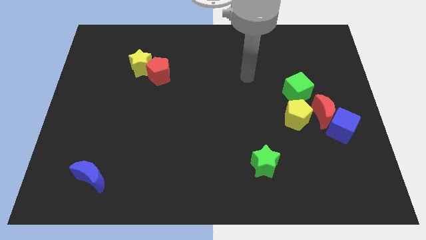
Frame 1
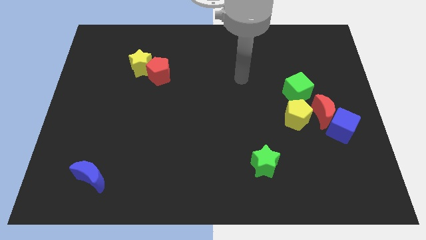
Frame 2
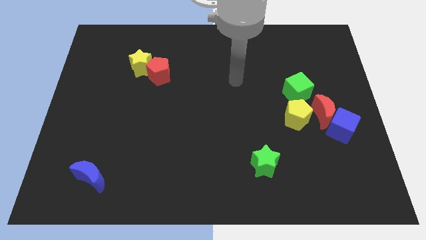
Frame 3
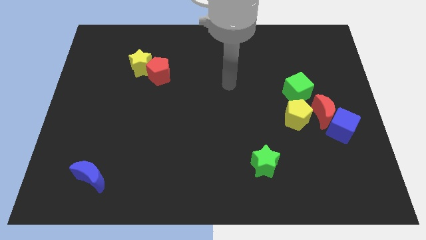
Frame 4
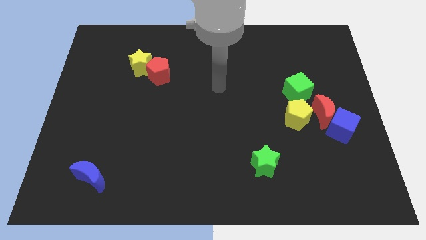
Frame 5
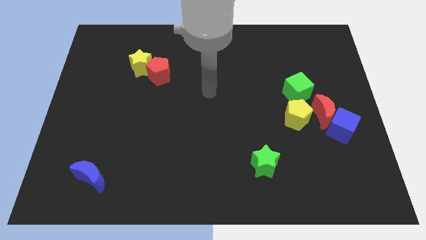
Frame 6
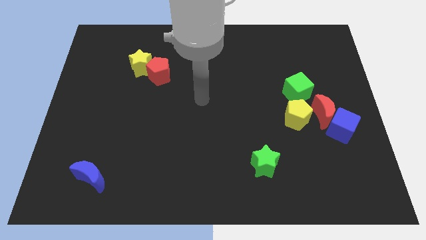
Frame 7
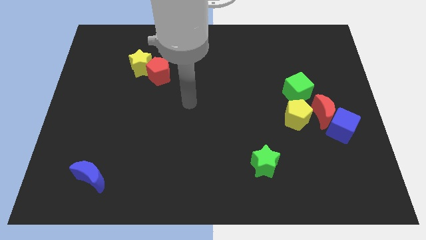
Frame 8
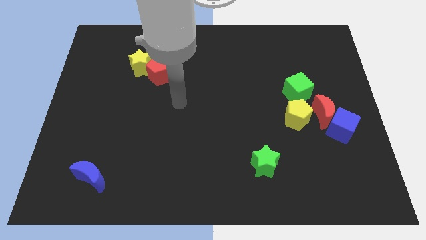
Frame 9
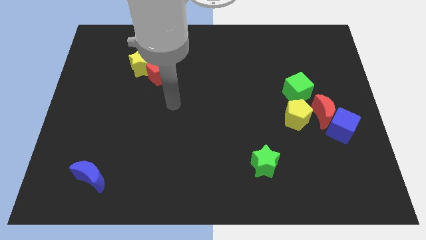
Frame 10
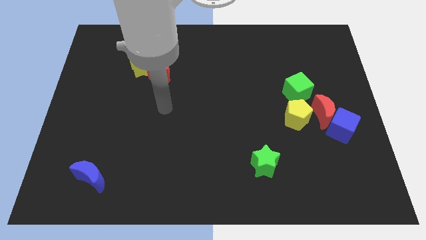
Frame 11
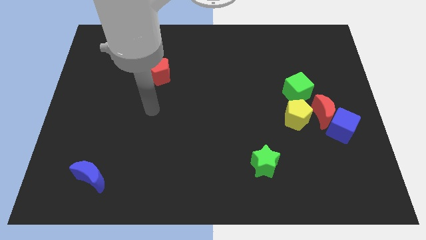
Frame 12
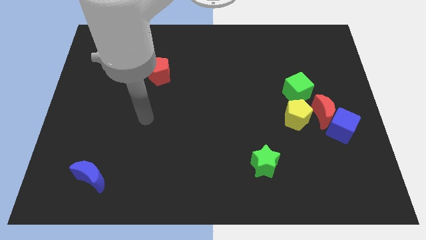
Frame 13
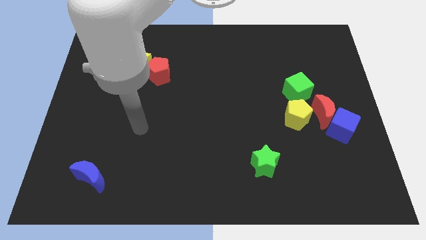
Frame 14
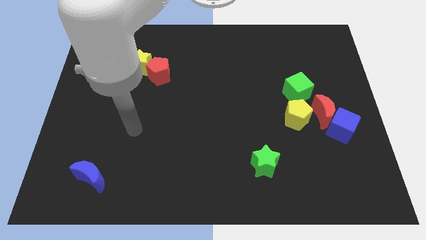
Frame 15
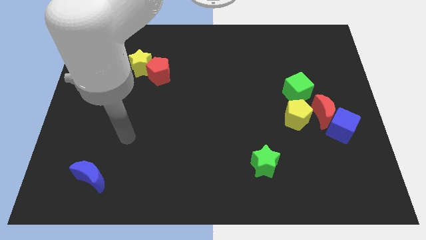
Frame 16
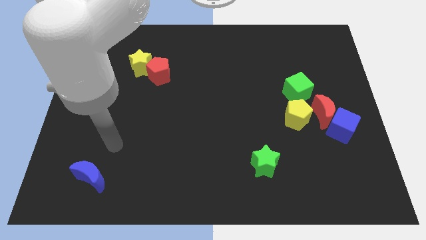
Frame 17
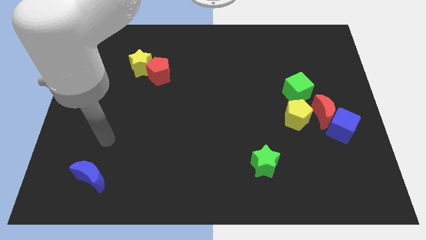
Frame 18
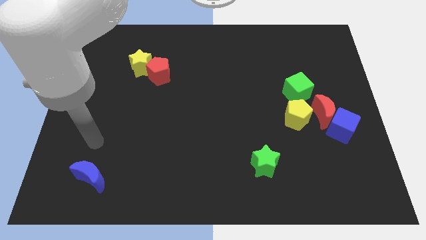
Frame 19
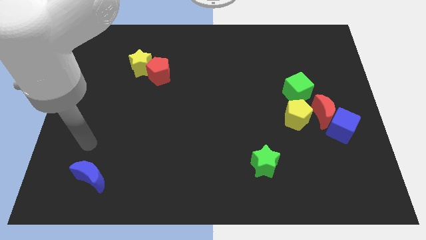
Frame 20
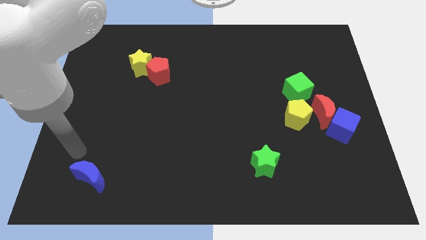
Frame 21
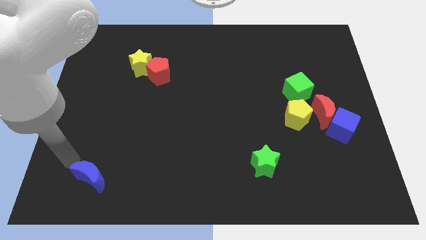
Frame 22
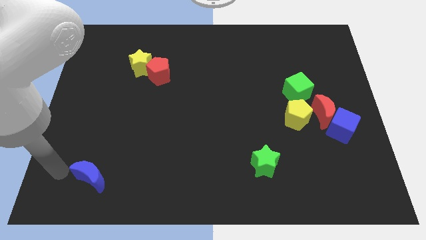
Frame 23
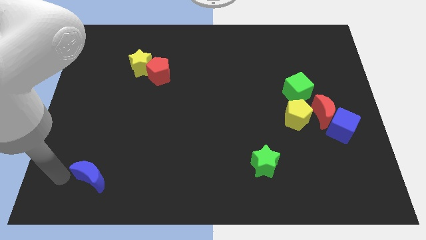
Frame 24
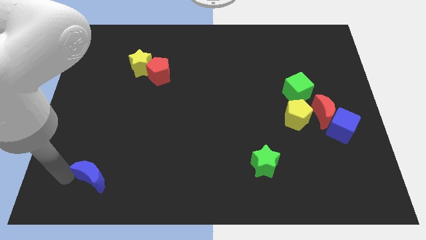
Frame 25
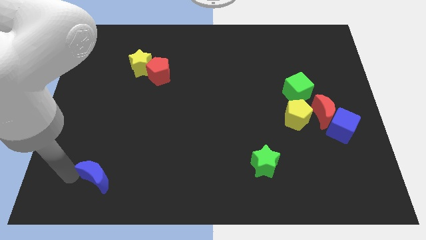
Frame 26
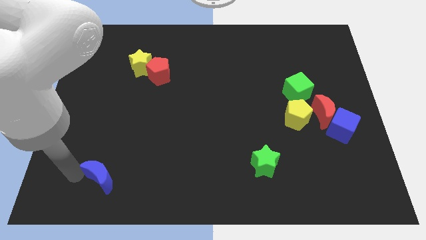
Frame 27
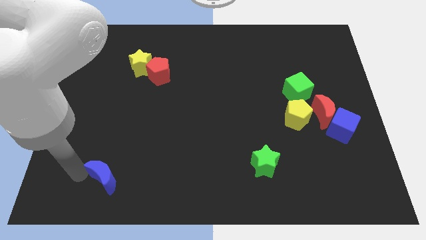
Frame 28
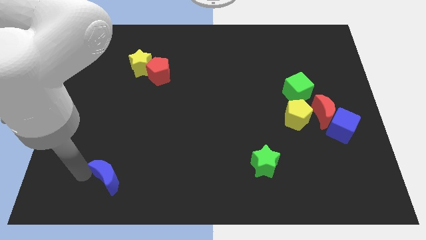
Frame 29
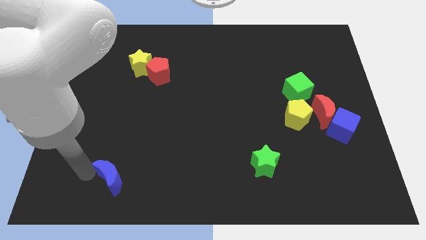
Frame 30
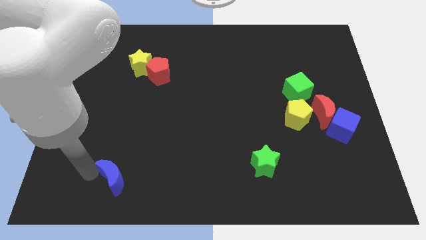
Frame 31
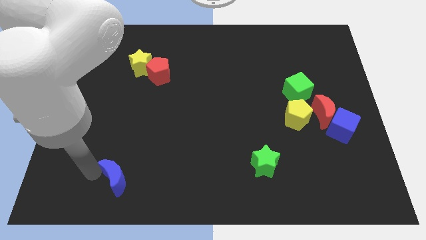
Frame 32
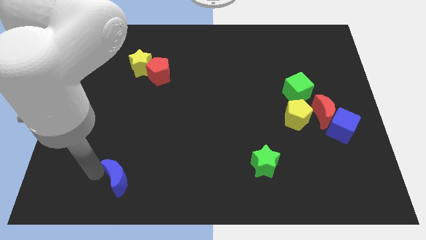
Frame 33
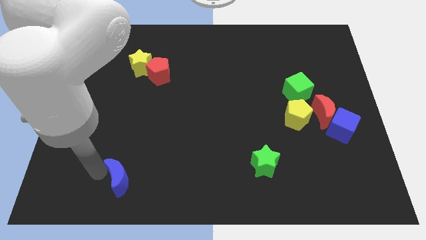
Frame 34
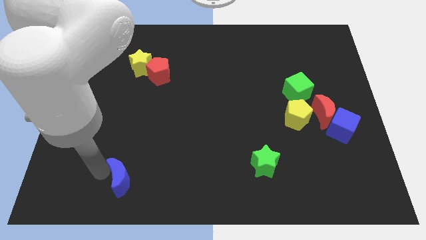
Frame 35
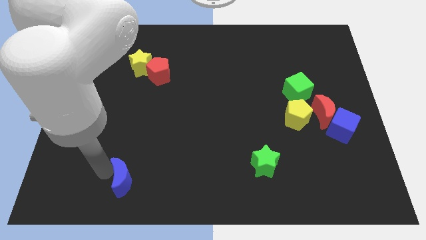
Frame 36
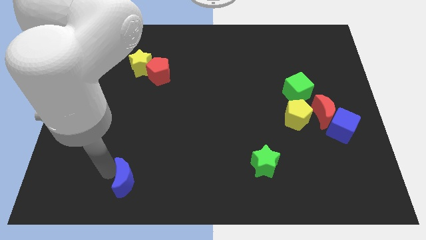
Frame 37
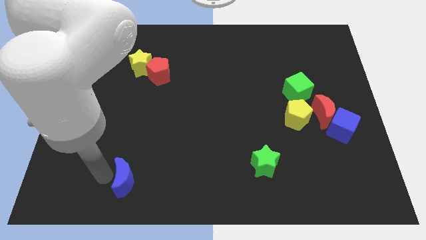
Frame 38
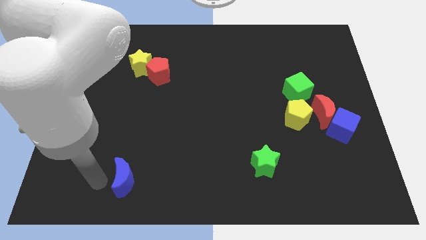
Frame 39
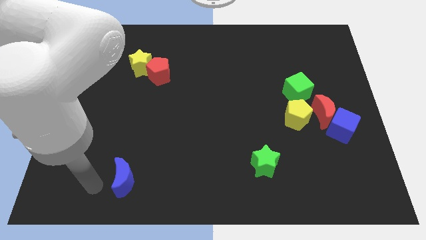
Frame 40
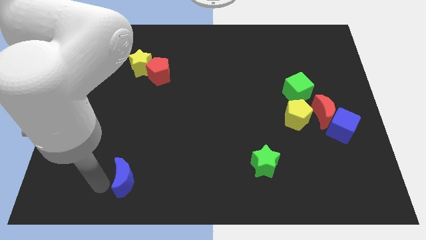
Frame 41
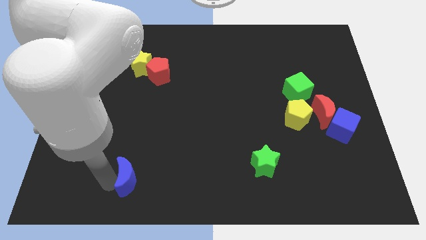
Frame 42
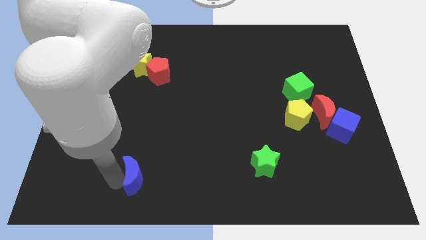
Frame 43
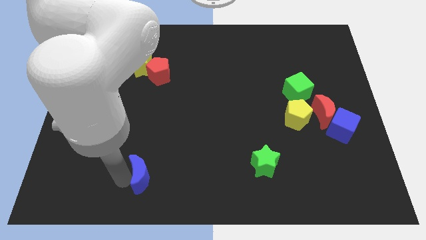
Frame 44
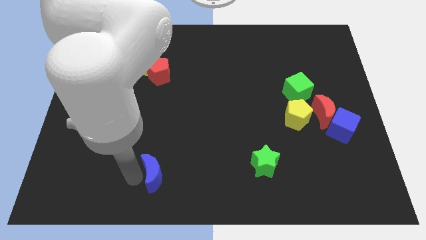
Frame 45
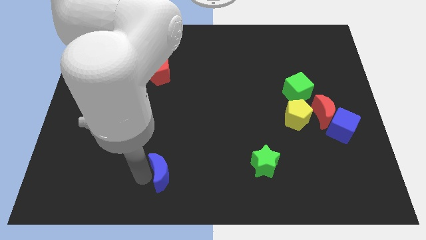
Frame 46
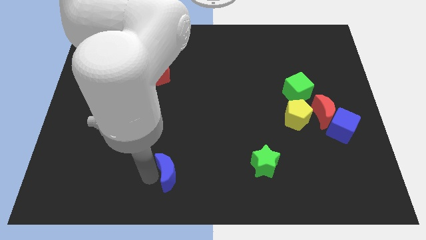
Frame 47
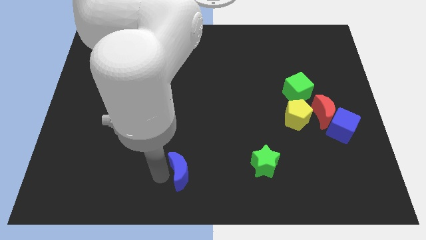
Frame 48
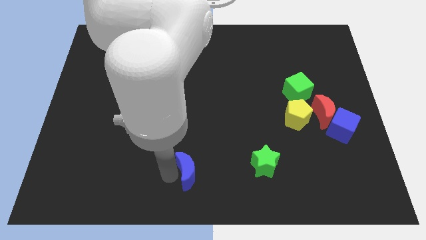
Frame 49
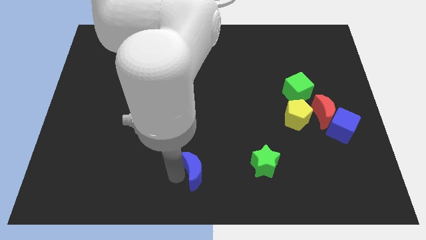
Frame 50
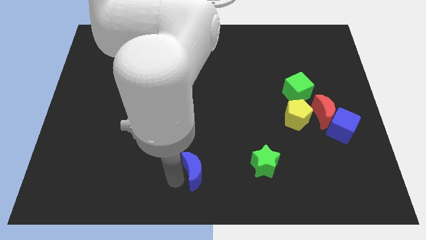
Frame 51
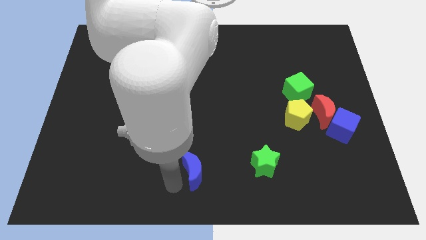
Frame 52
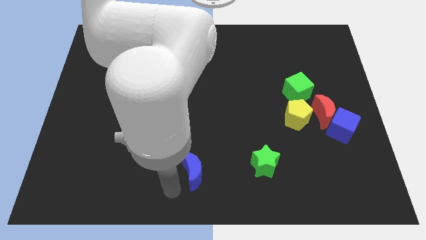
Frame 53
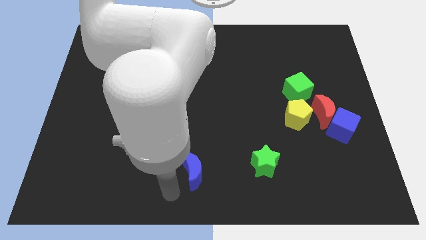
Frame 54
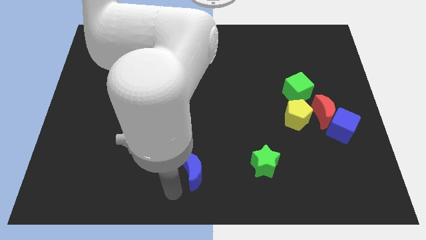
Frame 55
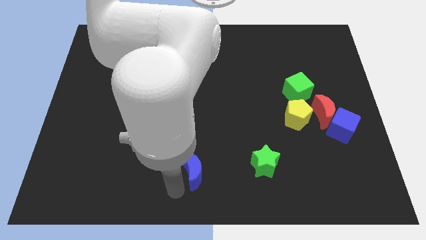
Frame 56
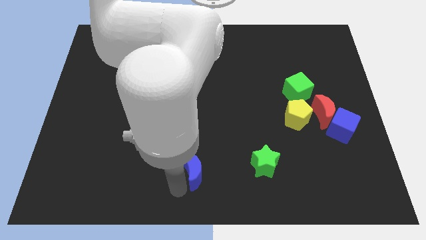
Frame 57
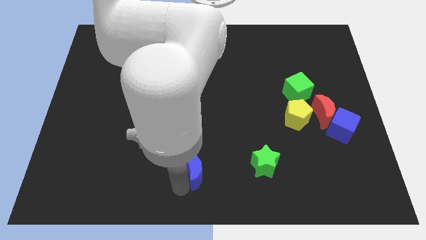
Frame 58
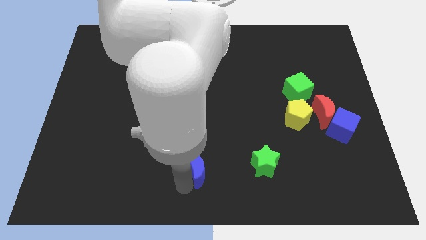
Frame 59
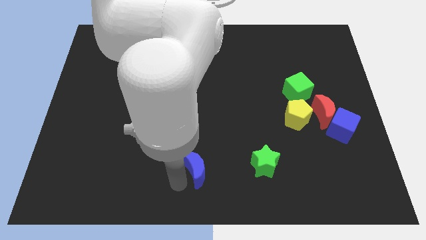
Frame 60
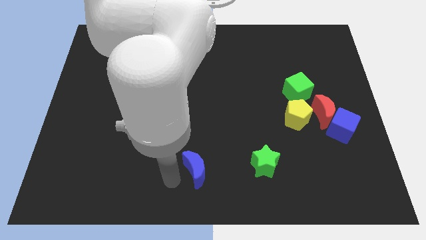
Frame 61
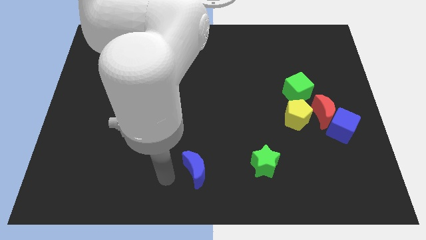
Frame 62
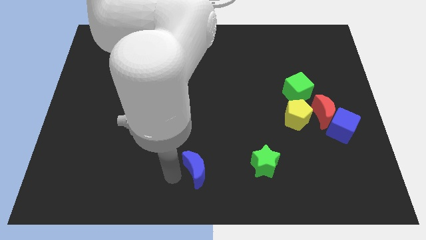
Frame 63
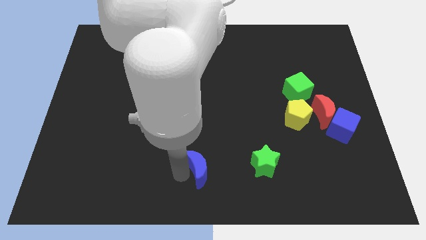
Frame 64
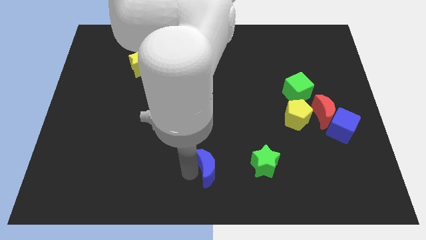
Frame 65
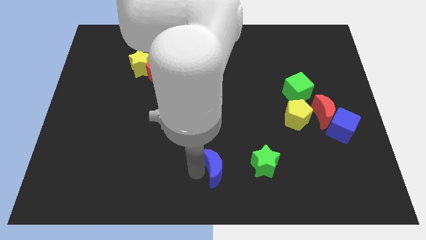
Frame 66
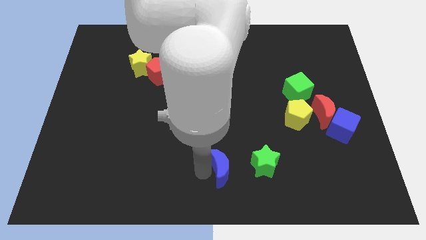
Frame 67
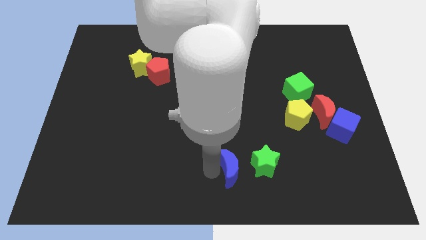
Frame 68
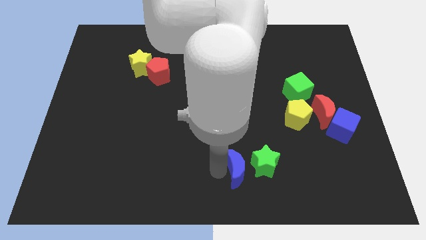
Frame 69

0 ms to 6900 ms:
put the blue moon next to the green star

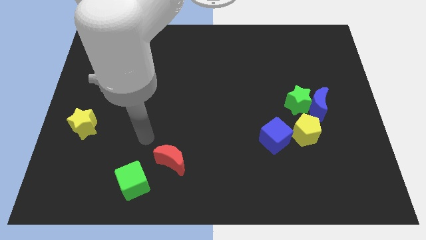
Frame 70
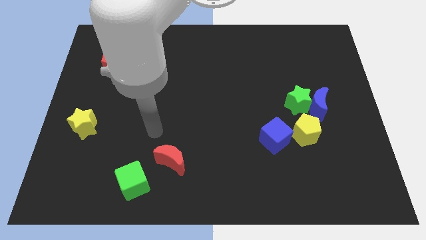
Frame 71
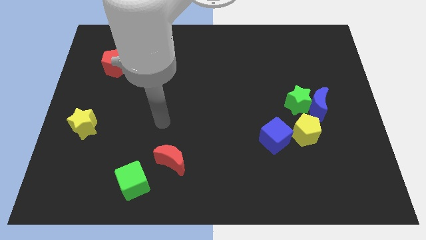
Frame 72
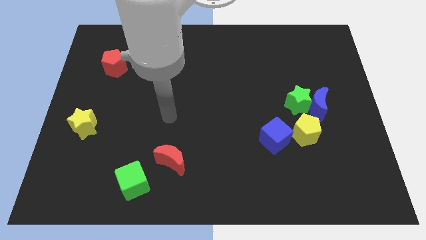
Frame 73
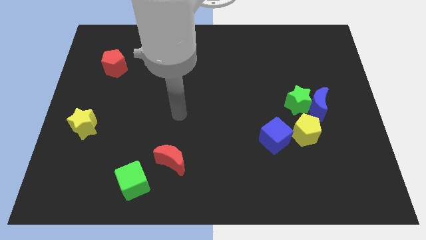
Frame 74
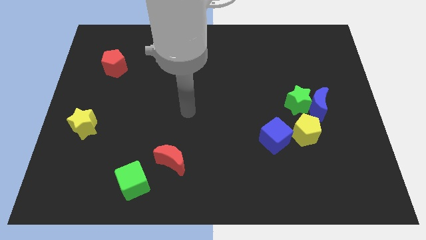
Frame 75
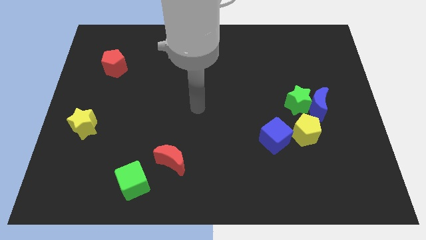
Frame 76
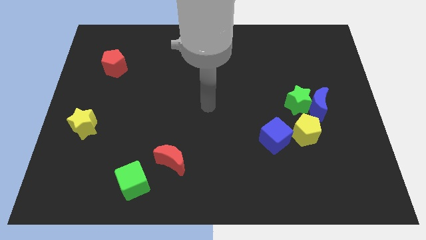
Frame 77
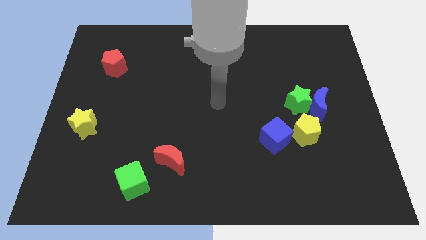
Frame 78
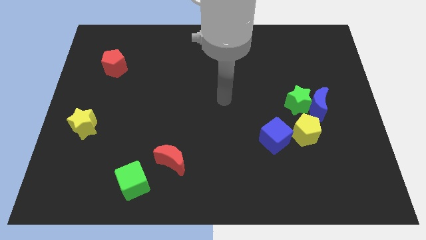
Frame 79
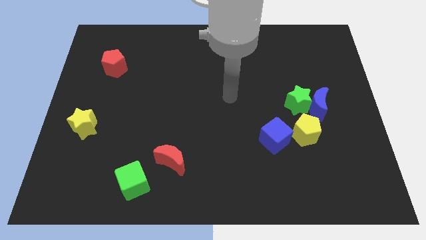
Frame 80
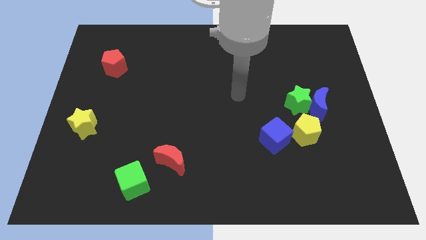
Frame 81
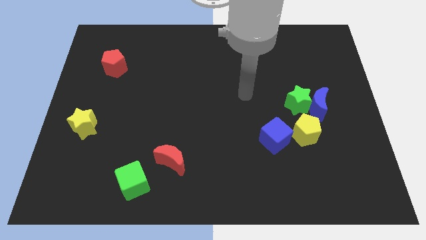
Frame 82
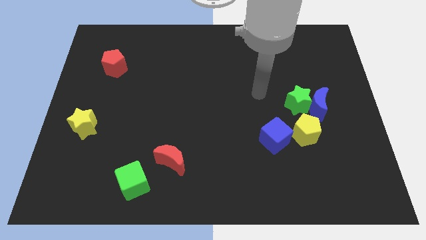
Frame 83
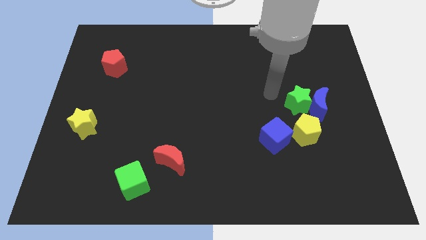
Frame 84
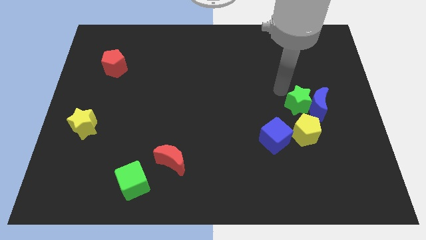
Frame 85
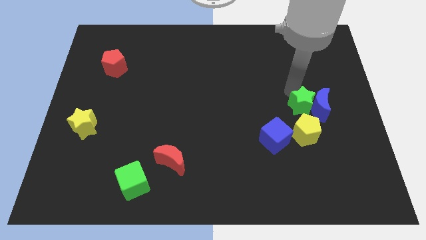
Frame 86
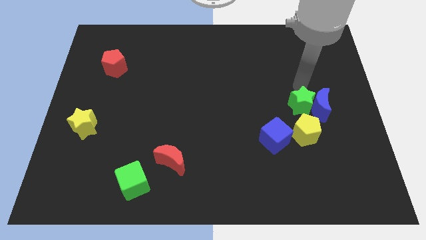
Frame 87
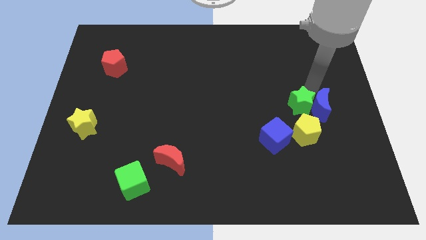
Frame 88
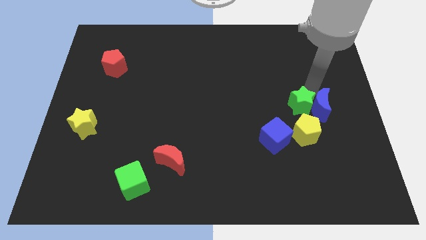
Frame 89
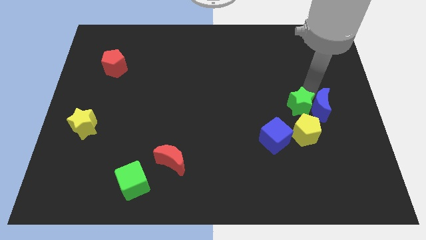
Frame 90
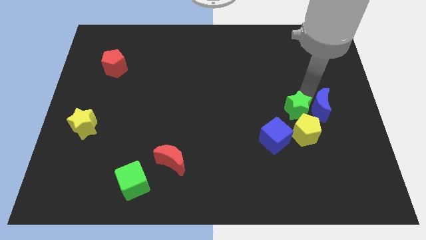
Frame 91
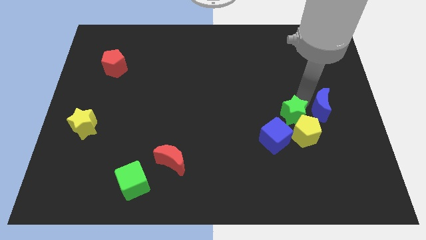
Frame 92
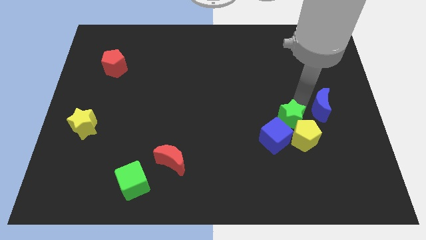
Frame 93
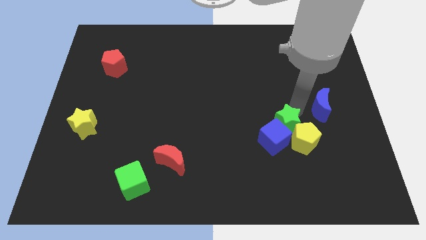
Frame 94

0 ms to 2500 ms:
slide the green star close to the blue cube
